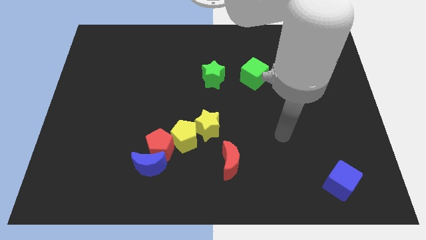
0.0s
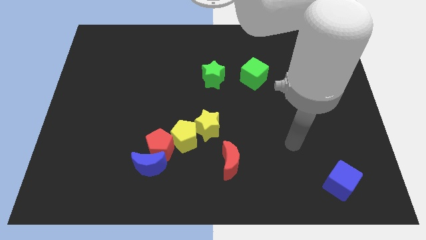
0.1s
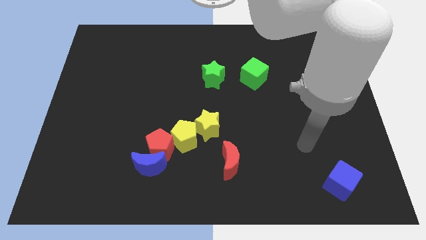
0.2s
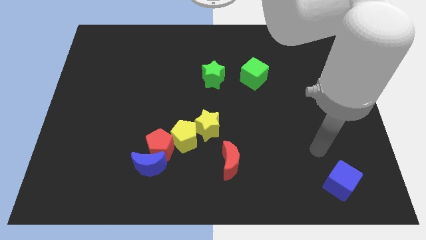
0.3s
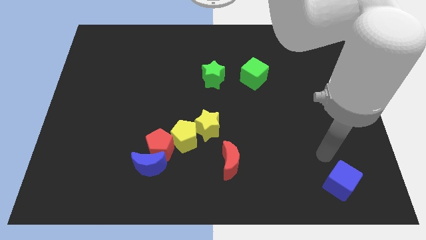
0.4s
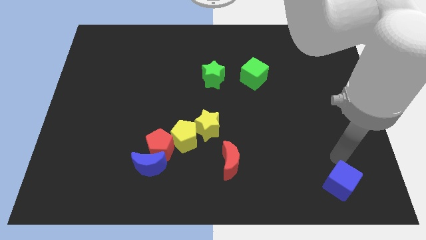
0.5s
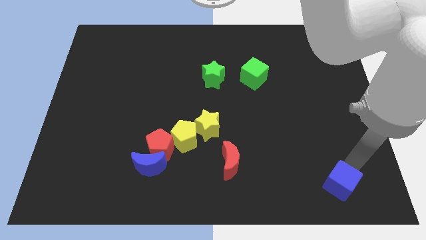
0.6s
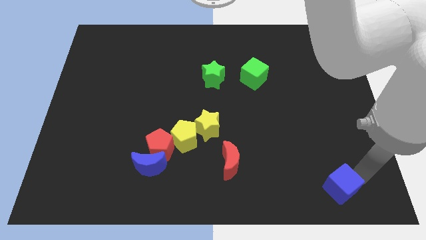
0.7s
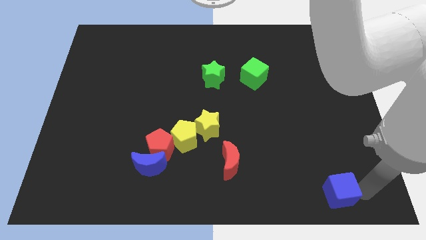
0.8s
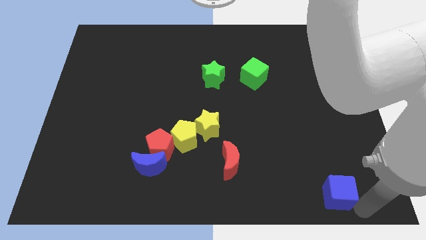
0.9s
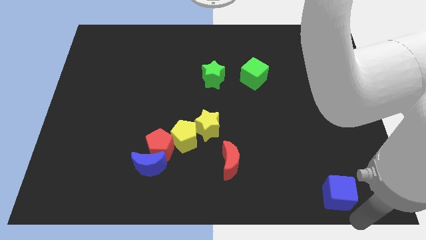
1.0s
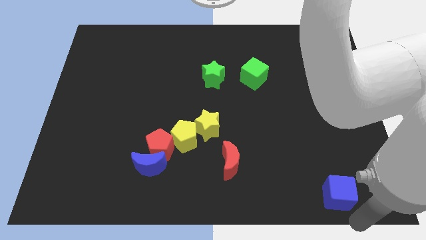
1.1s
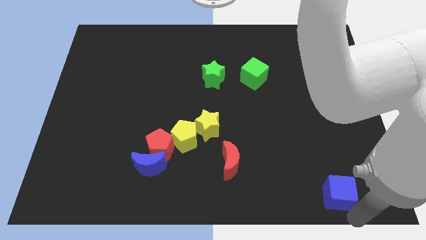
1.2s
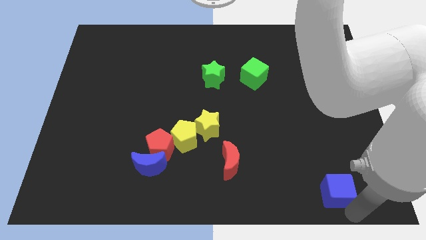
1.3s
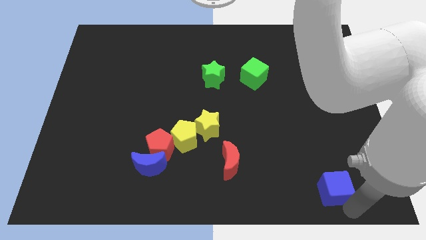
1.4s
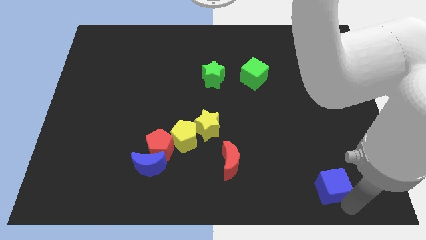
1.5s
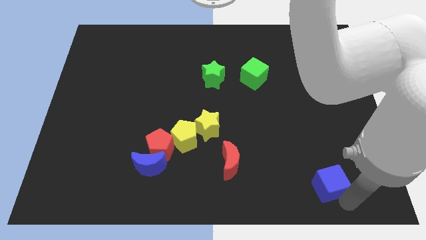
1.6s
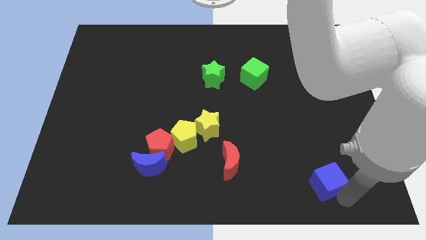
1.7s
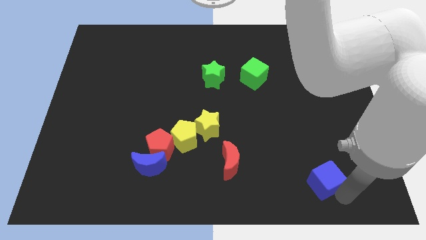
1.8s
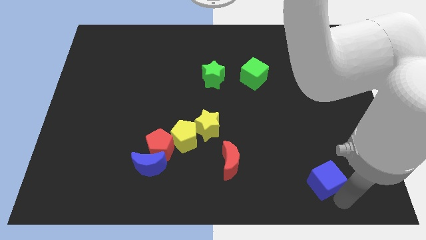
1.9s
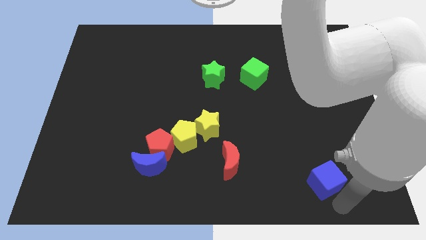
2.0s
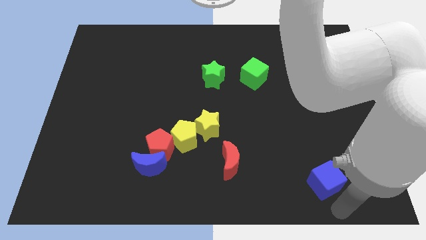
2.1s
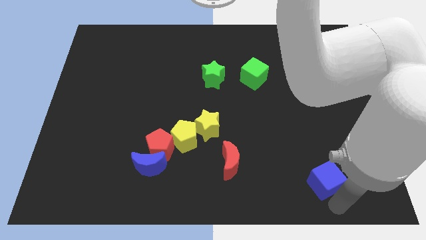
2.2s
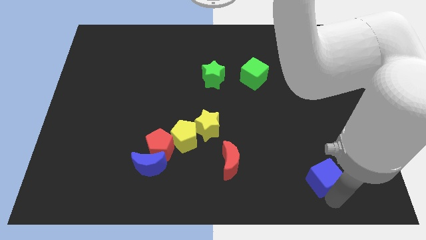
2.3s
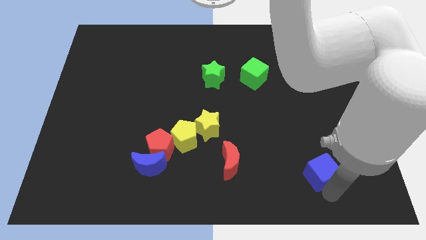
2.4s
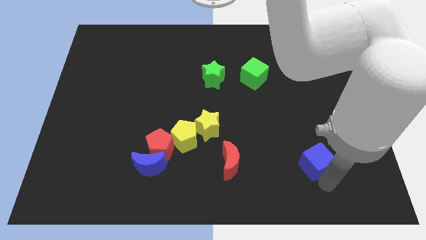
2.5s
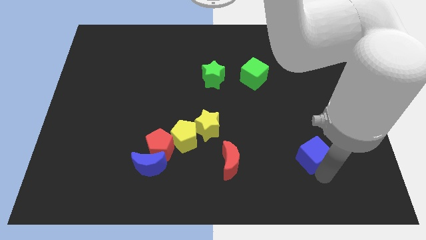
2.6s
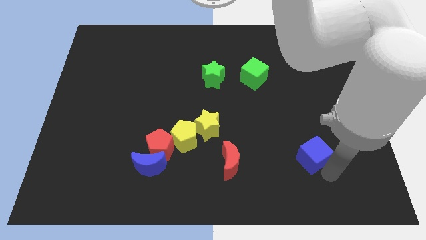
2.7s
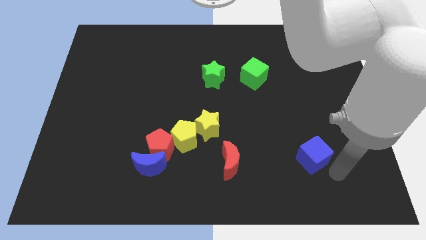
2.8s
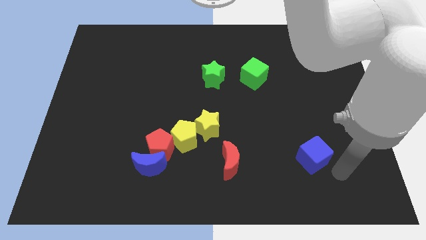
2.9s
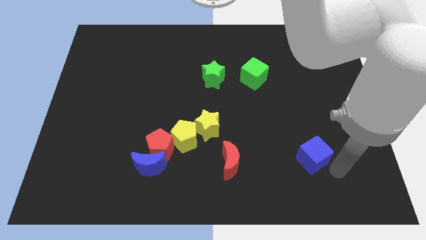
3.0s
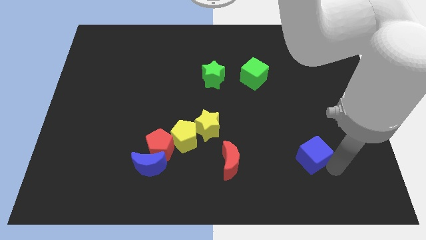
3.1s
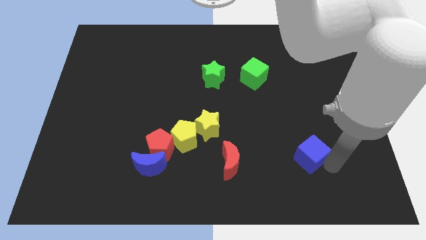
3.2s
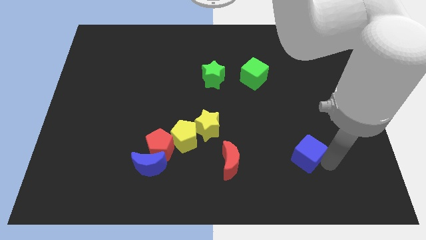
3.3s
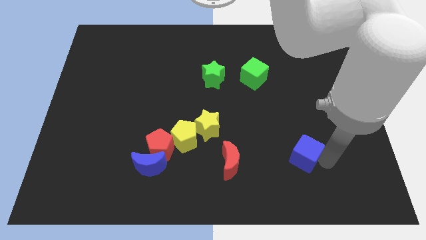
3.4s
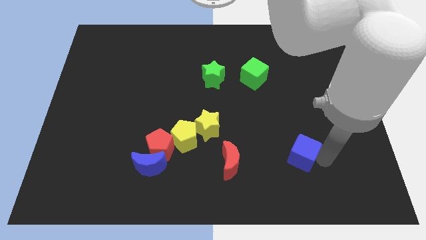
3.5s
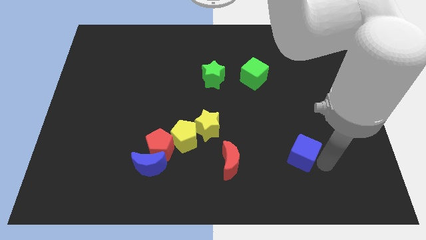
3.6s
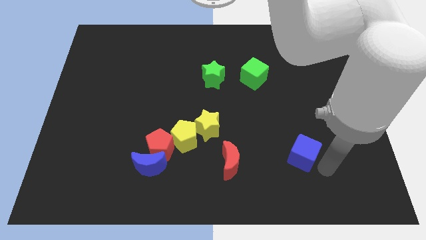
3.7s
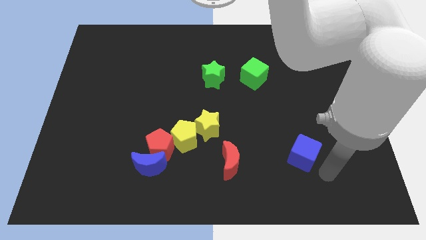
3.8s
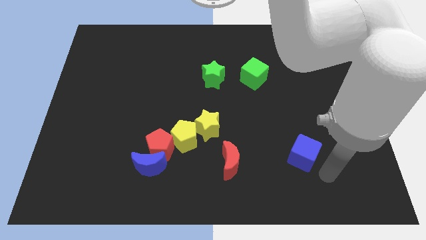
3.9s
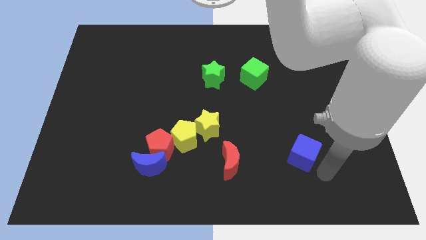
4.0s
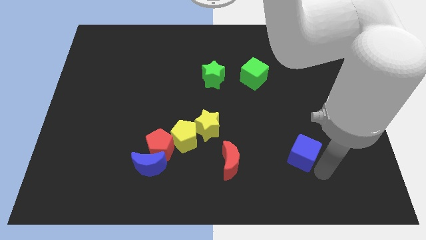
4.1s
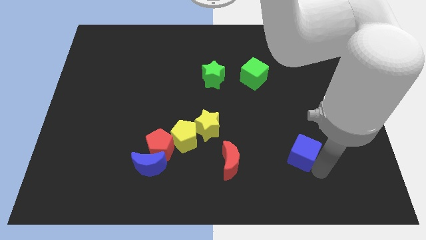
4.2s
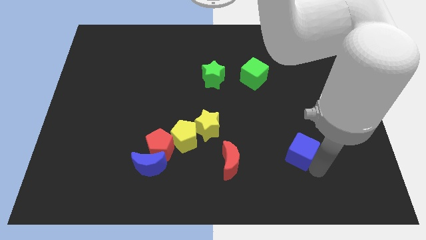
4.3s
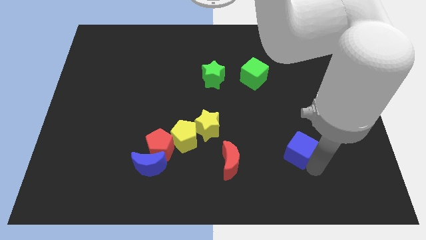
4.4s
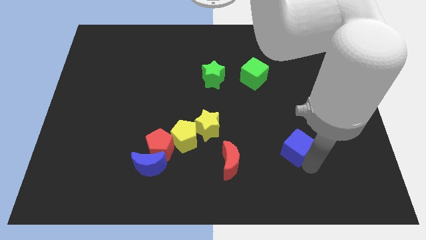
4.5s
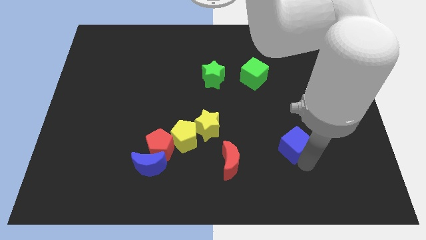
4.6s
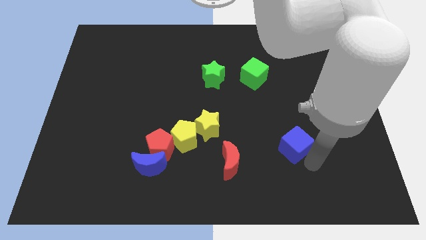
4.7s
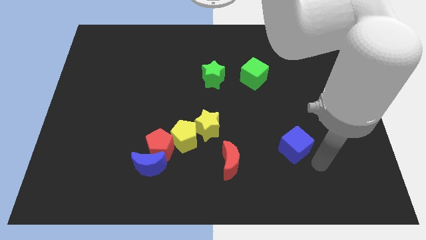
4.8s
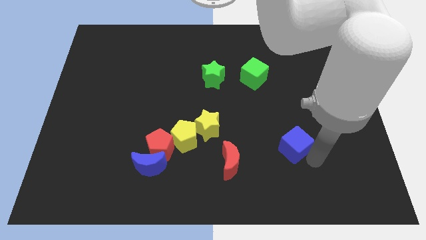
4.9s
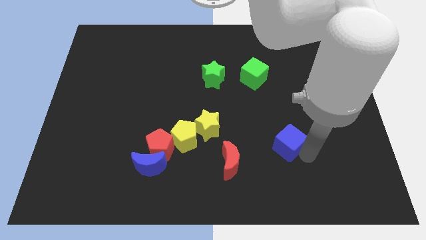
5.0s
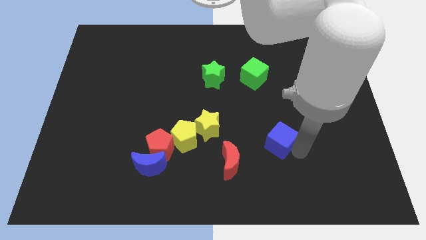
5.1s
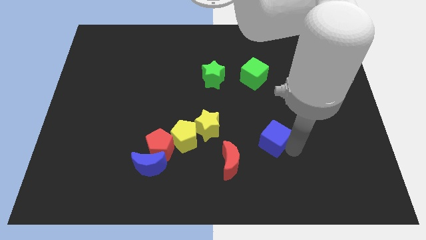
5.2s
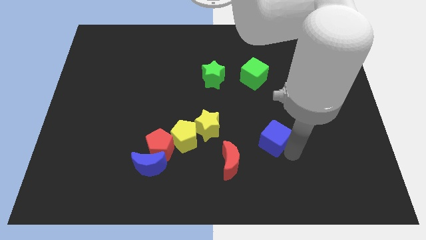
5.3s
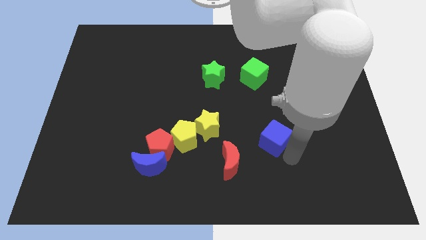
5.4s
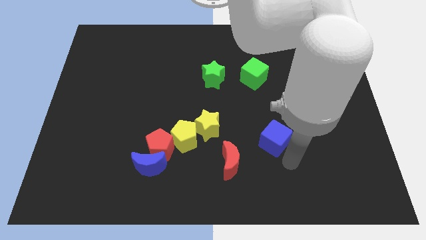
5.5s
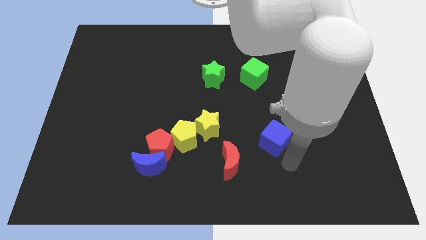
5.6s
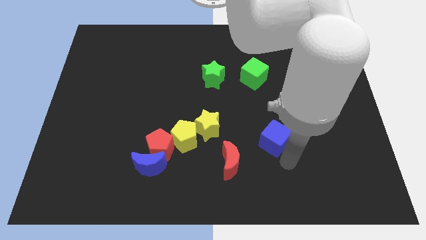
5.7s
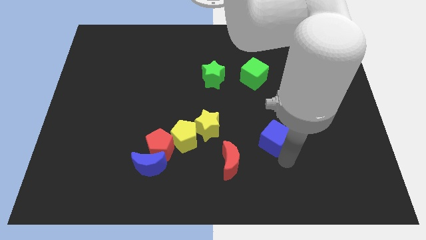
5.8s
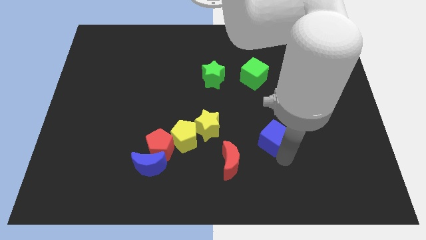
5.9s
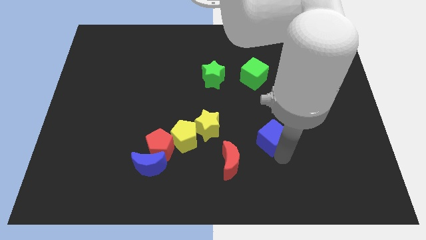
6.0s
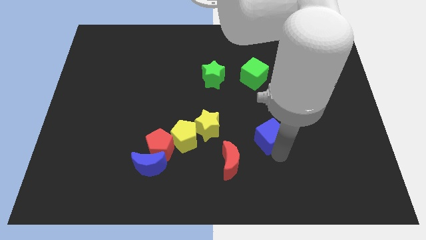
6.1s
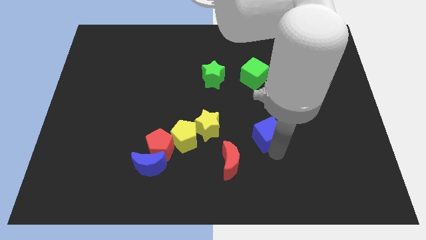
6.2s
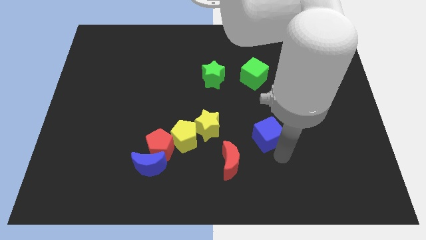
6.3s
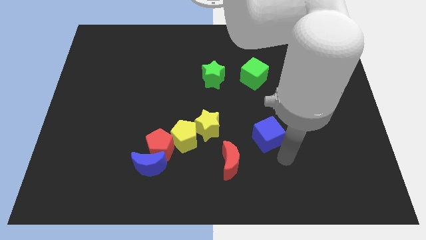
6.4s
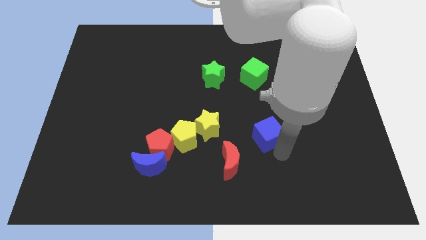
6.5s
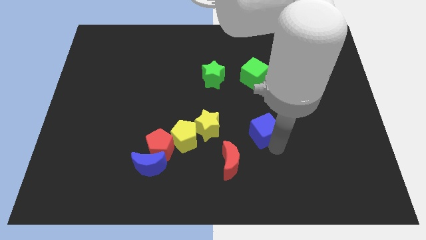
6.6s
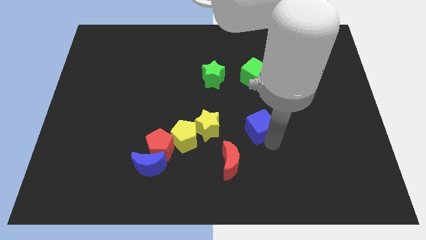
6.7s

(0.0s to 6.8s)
push the blue cube up and to the left

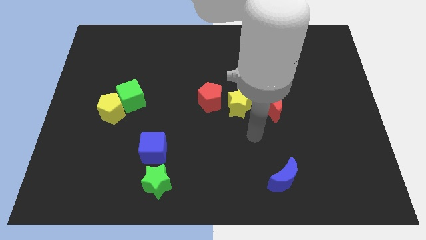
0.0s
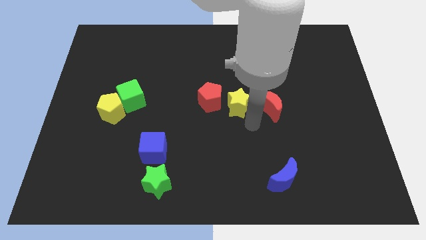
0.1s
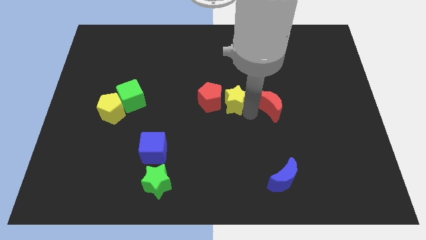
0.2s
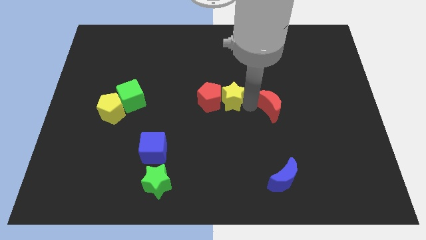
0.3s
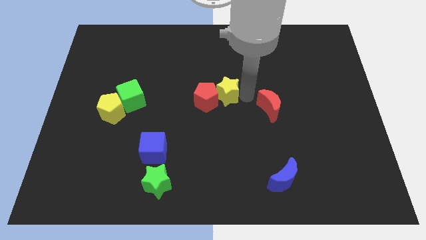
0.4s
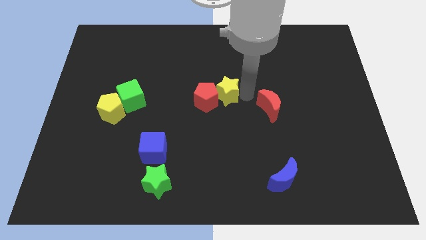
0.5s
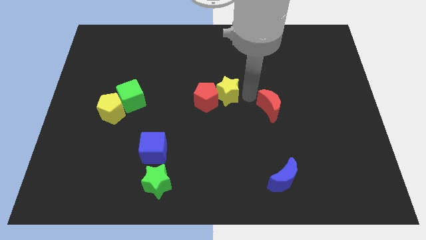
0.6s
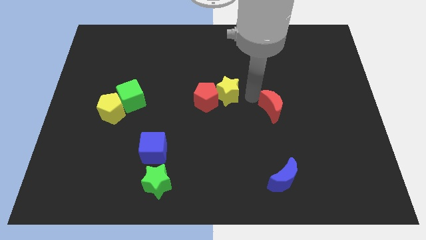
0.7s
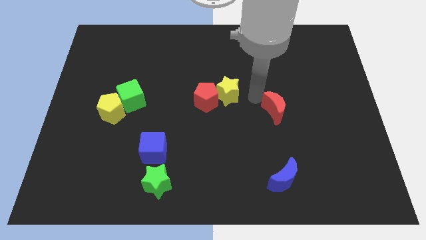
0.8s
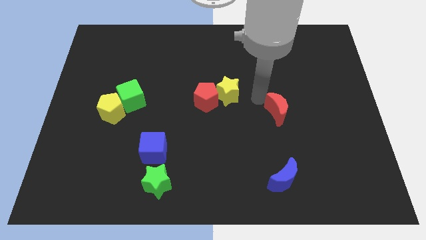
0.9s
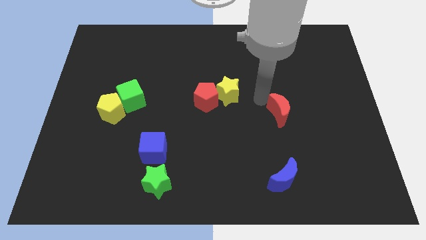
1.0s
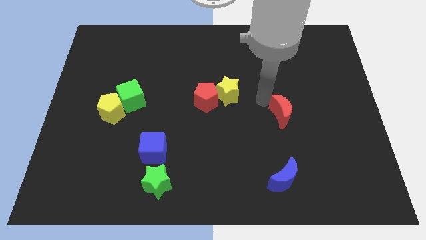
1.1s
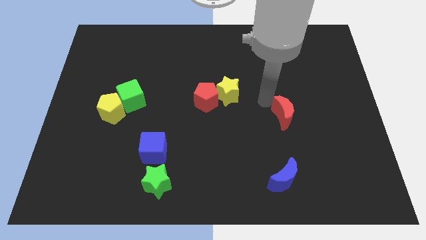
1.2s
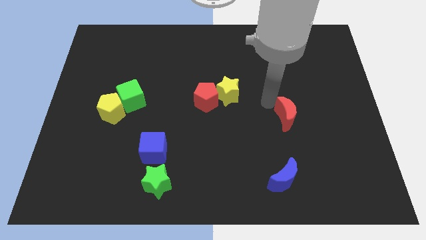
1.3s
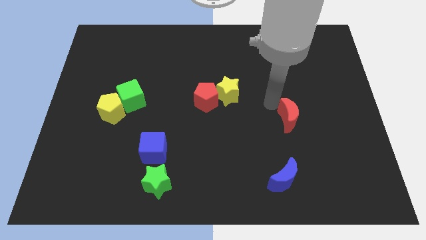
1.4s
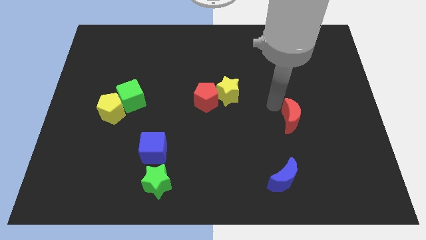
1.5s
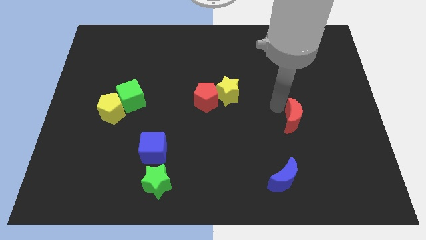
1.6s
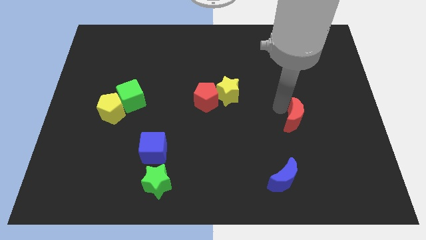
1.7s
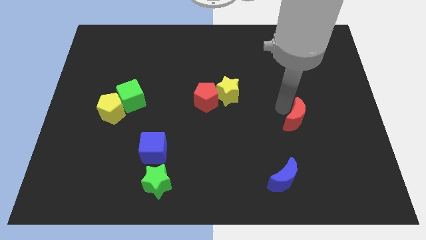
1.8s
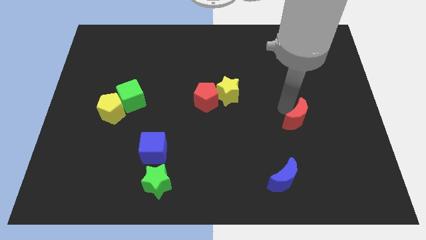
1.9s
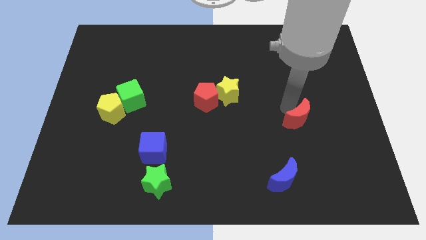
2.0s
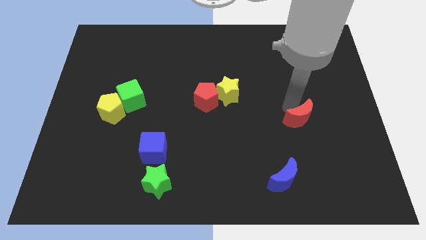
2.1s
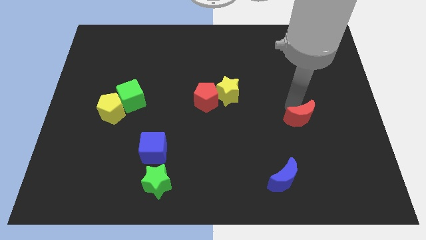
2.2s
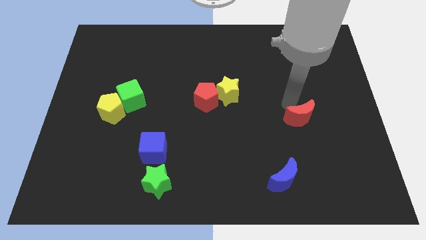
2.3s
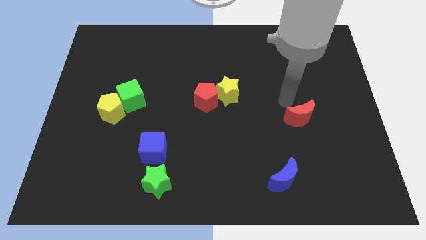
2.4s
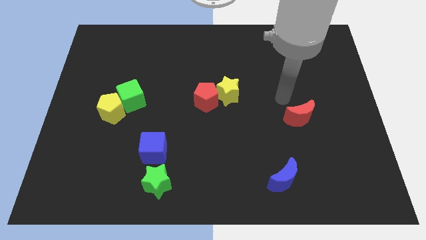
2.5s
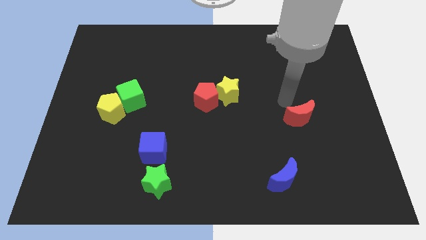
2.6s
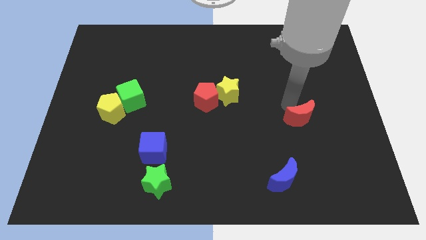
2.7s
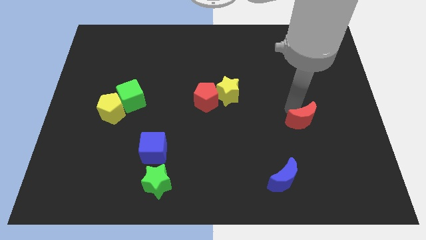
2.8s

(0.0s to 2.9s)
slightly slide the red moon diagonally down and right
